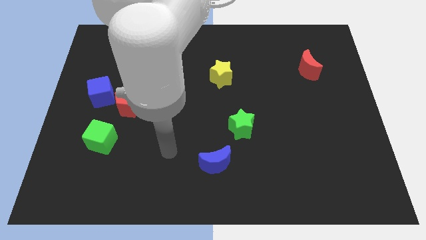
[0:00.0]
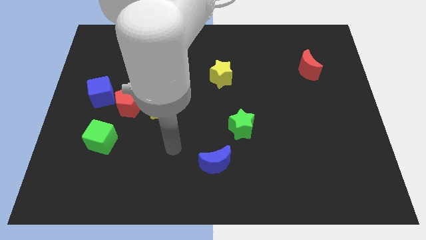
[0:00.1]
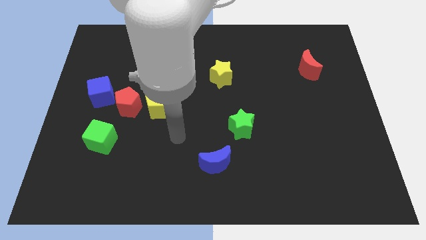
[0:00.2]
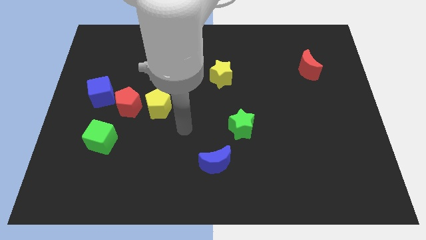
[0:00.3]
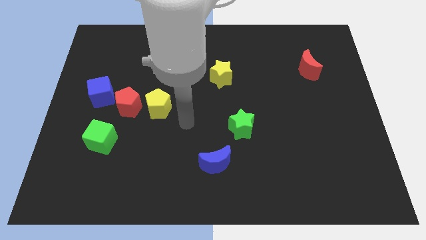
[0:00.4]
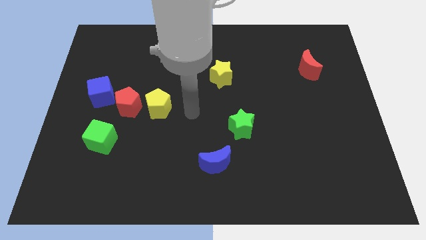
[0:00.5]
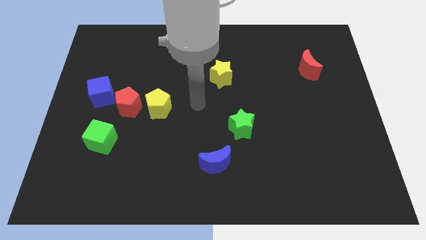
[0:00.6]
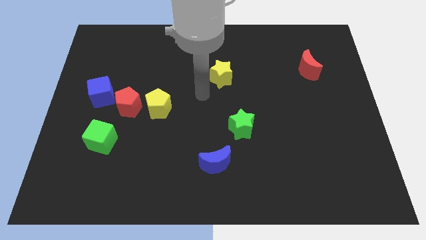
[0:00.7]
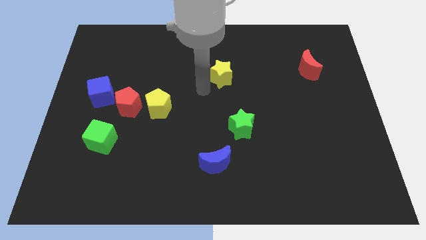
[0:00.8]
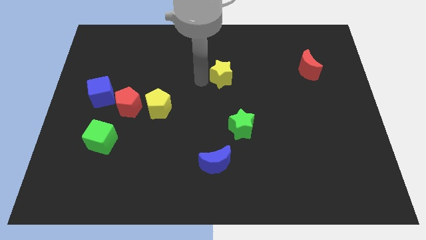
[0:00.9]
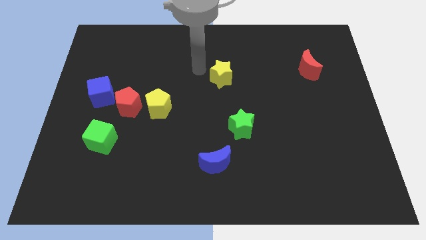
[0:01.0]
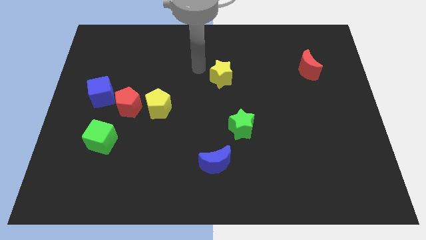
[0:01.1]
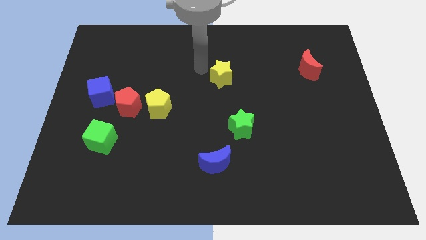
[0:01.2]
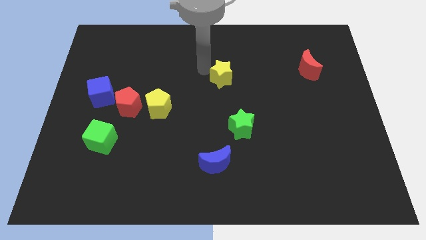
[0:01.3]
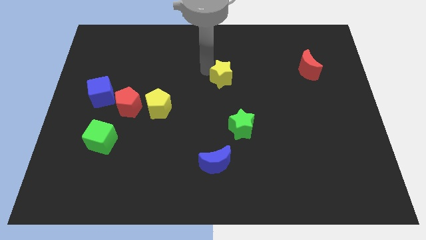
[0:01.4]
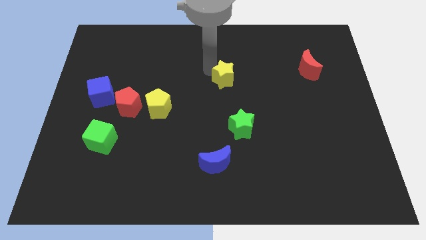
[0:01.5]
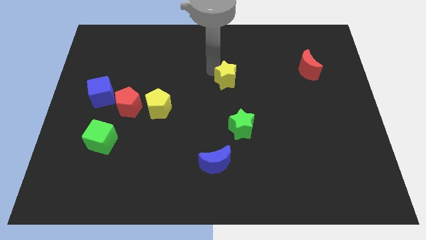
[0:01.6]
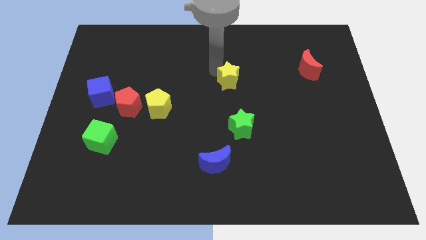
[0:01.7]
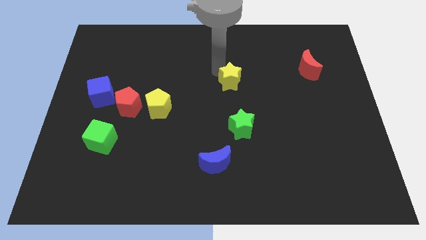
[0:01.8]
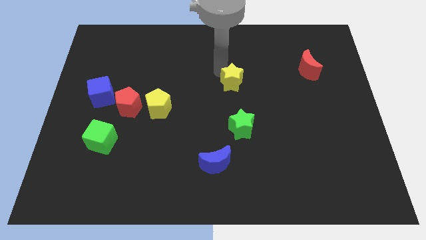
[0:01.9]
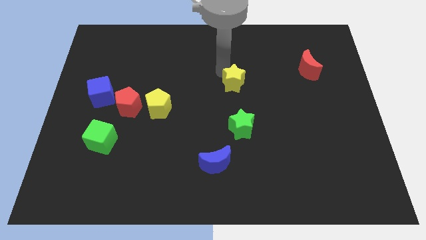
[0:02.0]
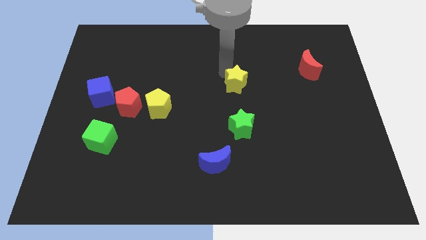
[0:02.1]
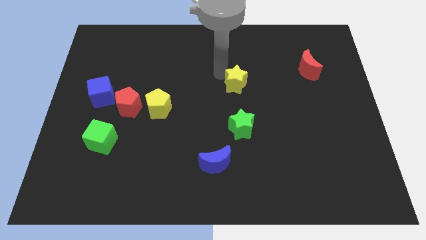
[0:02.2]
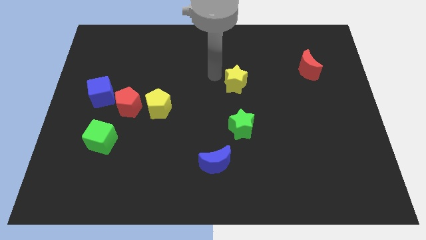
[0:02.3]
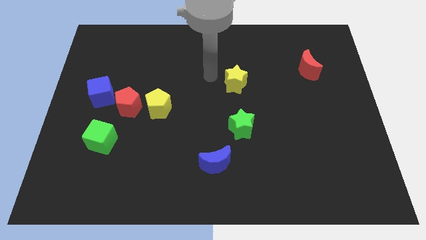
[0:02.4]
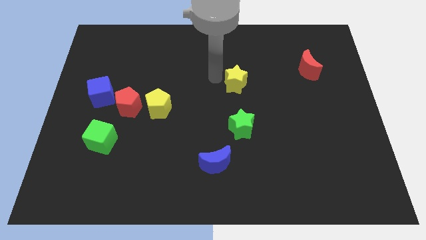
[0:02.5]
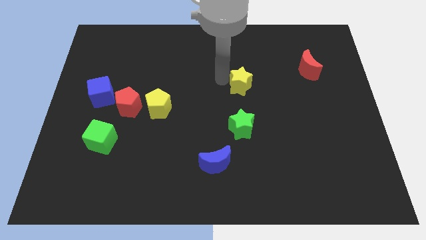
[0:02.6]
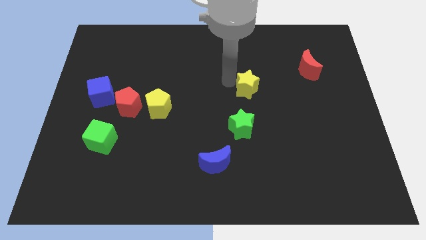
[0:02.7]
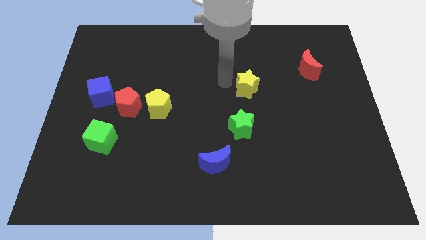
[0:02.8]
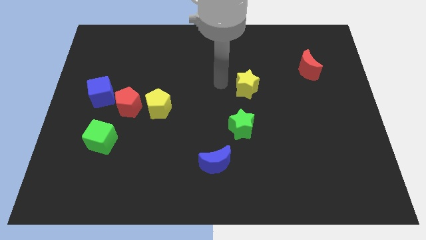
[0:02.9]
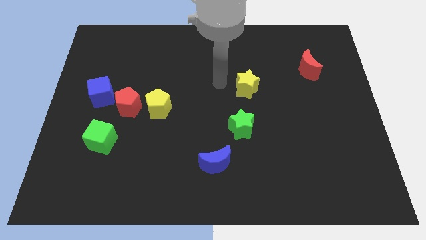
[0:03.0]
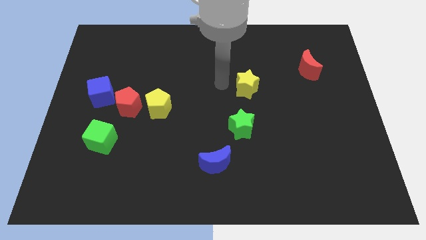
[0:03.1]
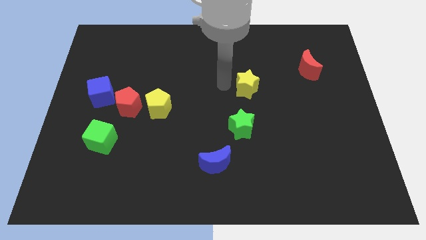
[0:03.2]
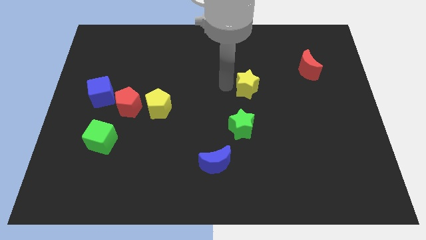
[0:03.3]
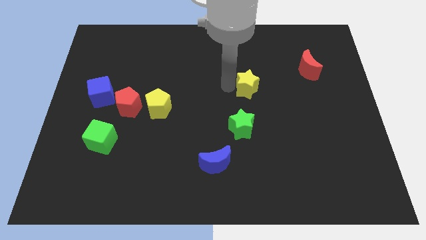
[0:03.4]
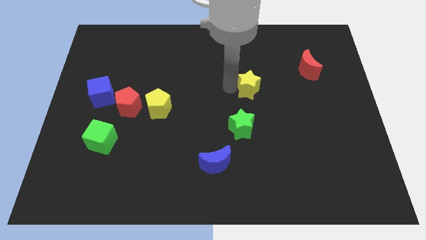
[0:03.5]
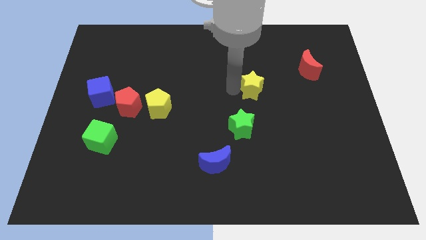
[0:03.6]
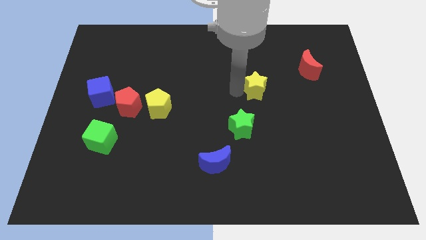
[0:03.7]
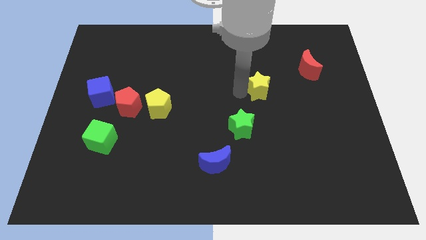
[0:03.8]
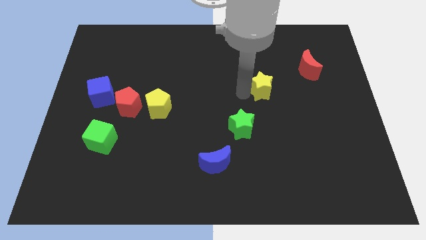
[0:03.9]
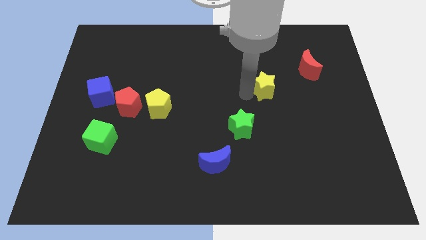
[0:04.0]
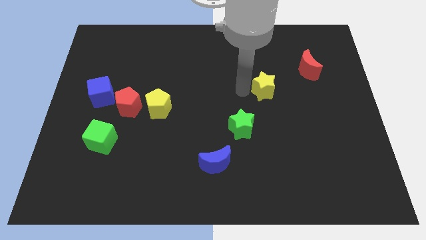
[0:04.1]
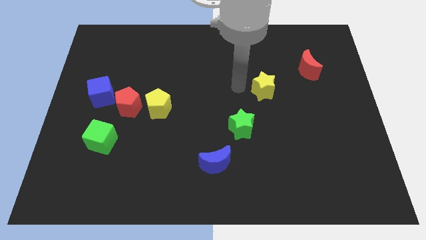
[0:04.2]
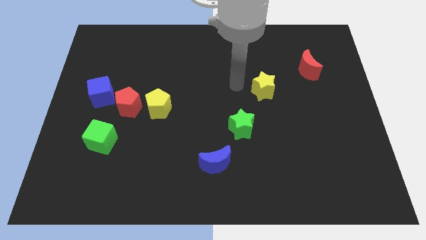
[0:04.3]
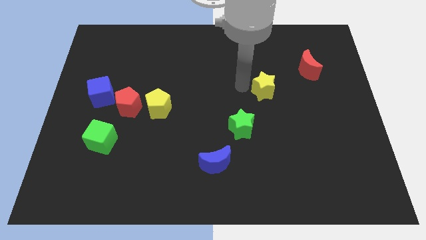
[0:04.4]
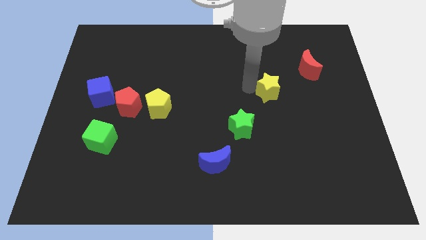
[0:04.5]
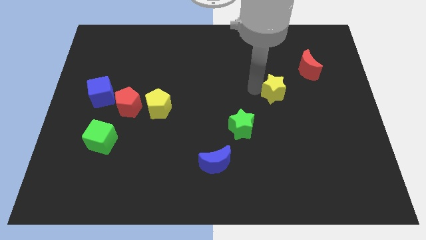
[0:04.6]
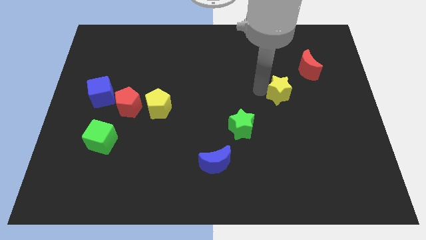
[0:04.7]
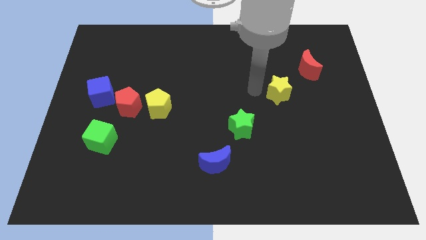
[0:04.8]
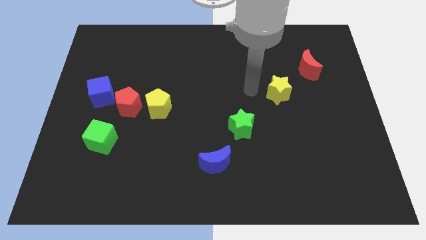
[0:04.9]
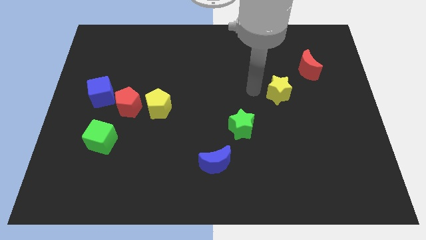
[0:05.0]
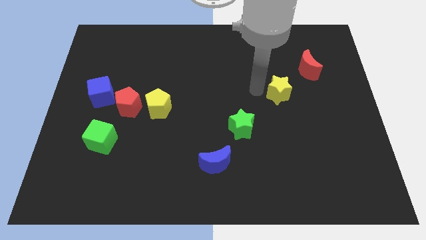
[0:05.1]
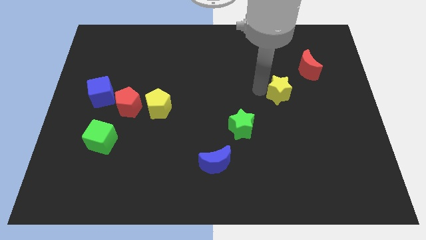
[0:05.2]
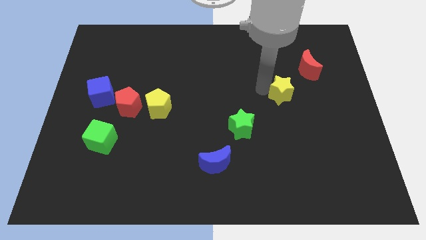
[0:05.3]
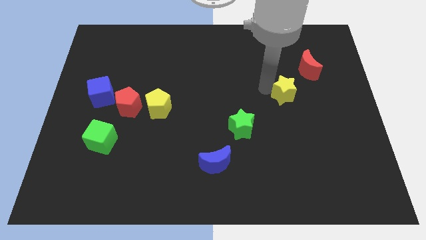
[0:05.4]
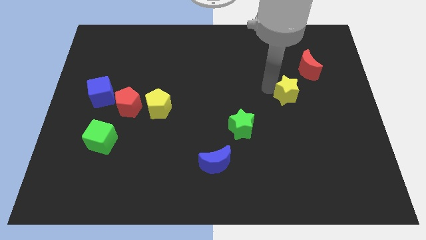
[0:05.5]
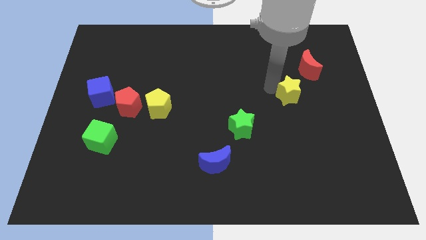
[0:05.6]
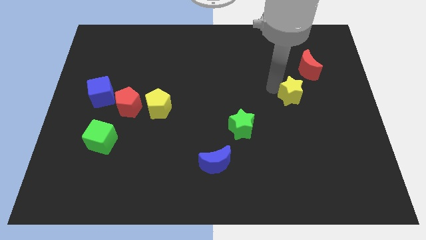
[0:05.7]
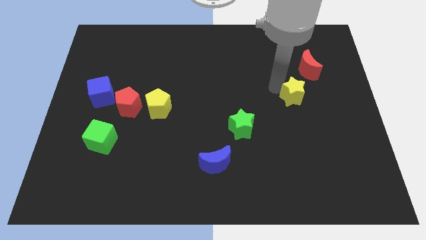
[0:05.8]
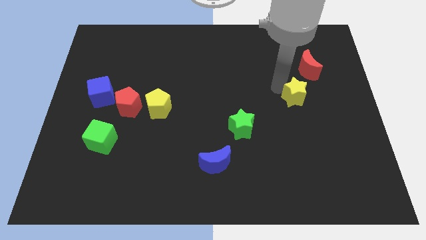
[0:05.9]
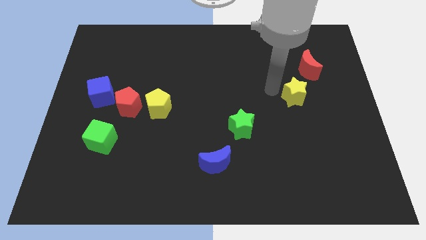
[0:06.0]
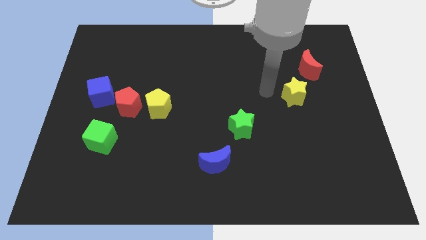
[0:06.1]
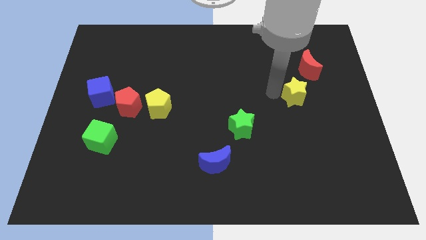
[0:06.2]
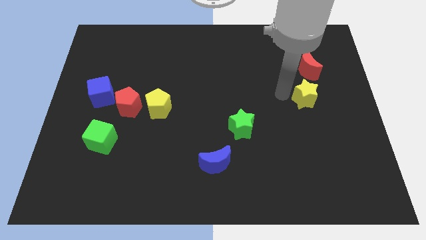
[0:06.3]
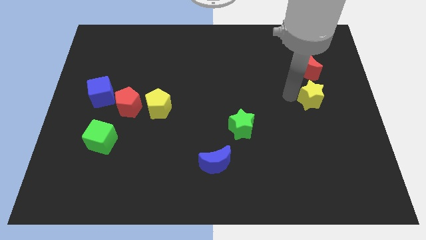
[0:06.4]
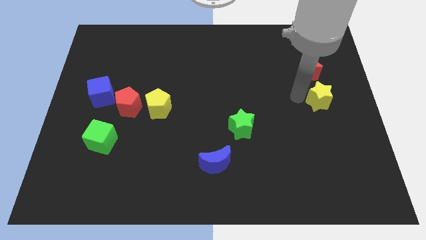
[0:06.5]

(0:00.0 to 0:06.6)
slide the yellow star to the right side
